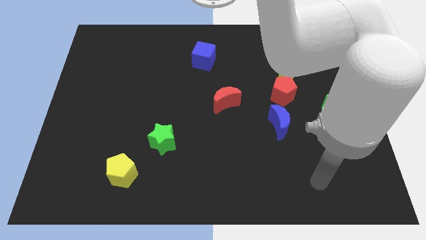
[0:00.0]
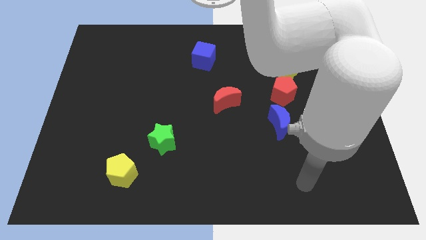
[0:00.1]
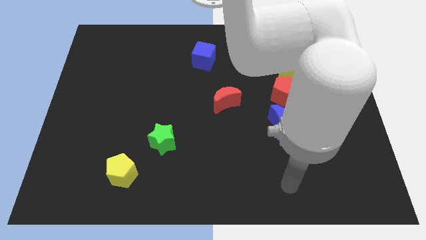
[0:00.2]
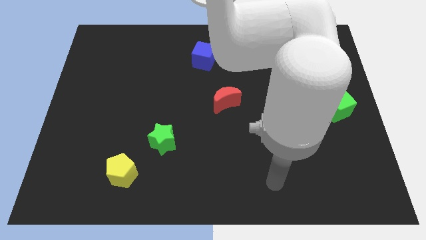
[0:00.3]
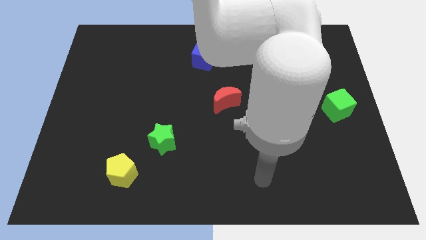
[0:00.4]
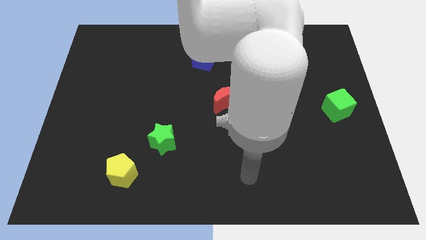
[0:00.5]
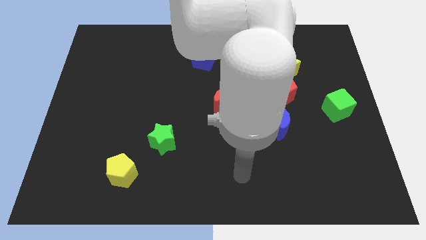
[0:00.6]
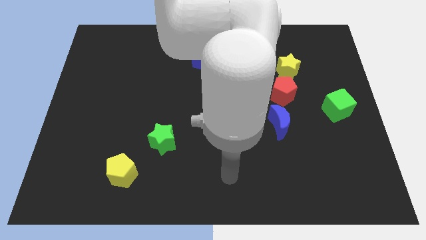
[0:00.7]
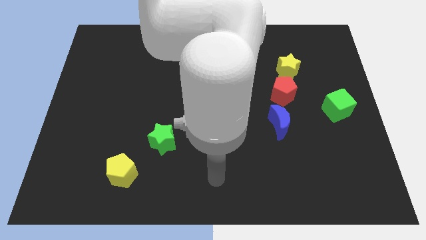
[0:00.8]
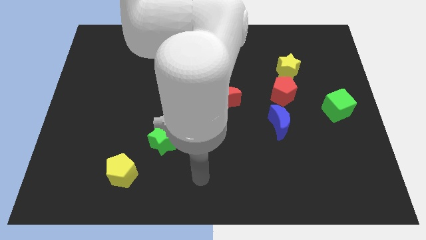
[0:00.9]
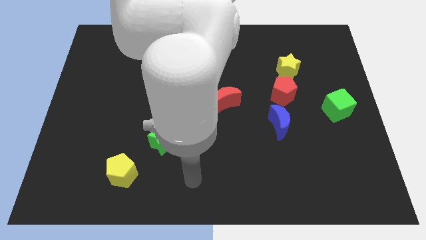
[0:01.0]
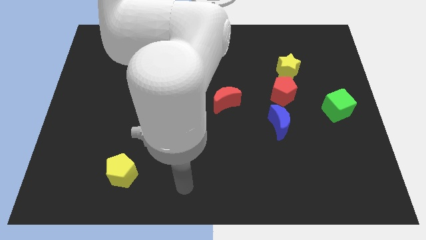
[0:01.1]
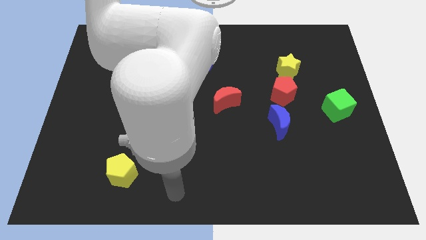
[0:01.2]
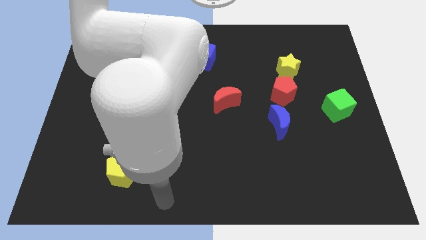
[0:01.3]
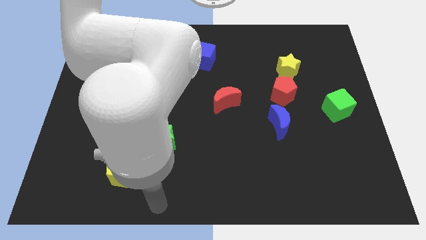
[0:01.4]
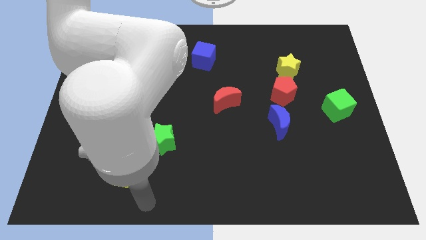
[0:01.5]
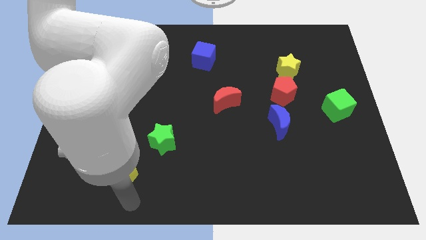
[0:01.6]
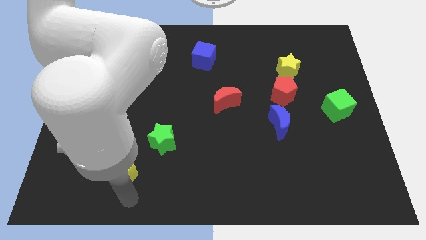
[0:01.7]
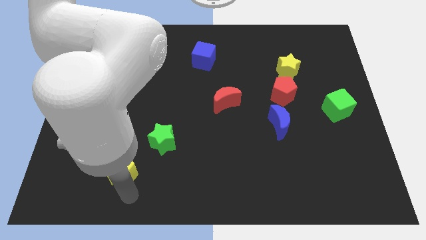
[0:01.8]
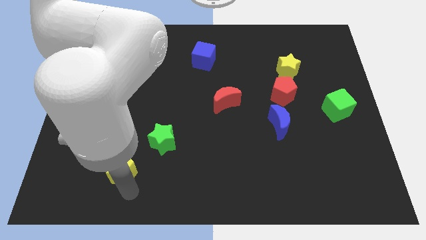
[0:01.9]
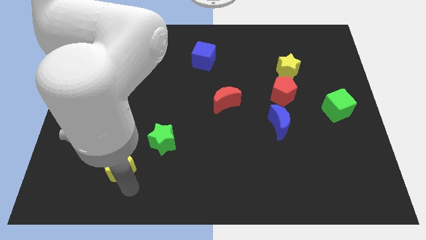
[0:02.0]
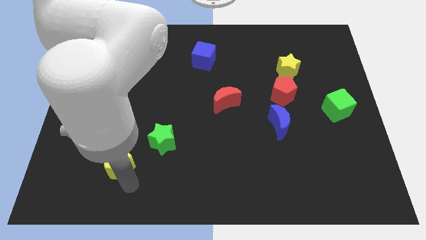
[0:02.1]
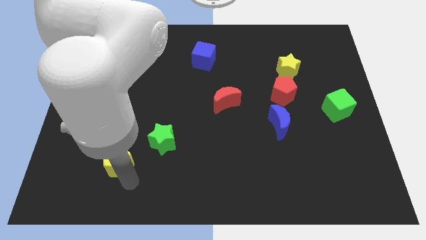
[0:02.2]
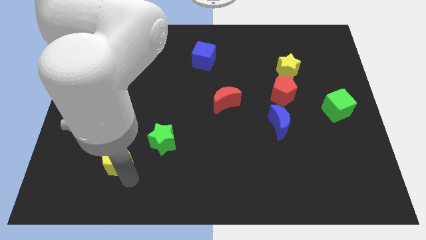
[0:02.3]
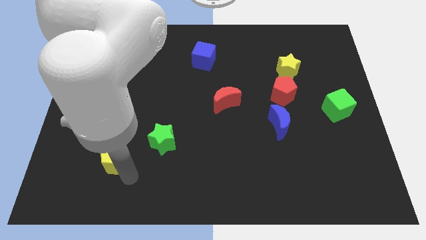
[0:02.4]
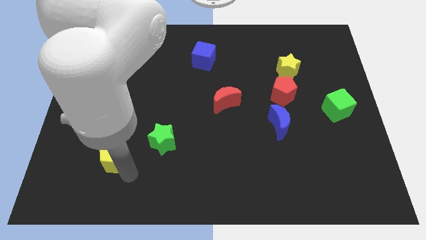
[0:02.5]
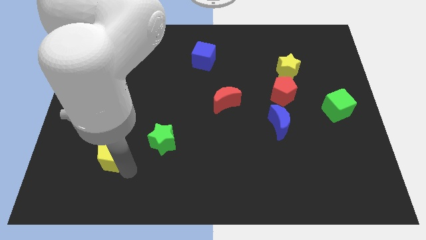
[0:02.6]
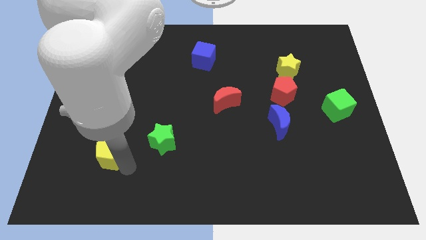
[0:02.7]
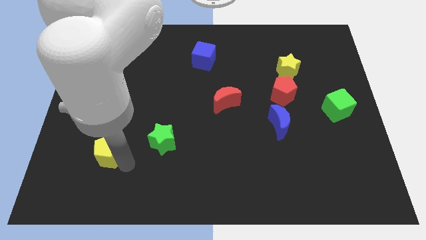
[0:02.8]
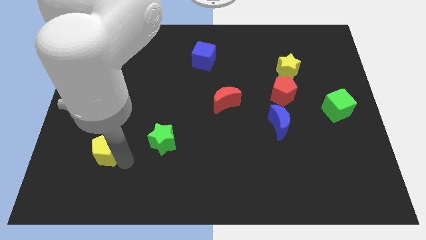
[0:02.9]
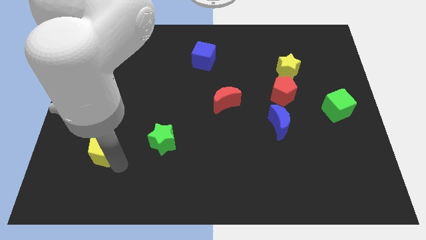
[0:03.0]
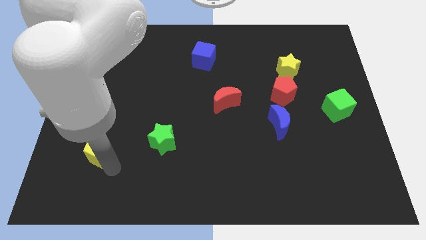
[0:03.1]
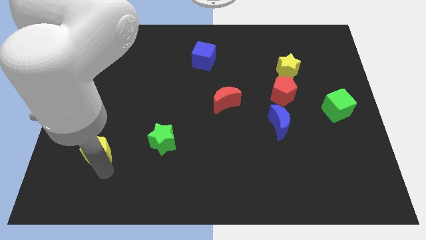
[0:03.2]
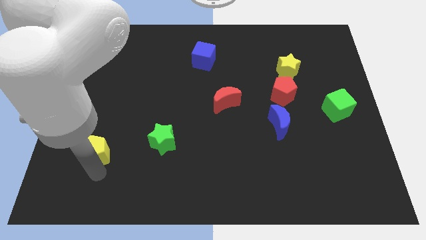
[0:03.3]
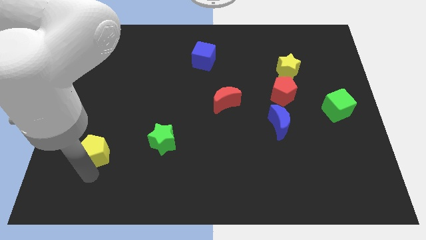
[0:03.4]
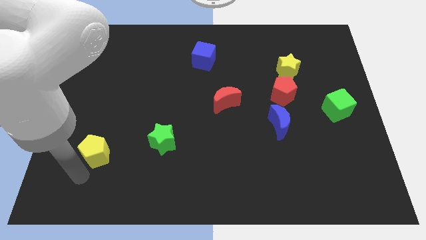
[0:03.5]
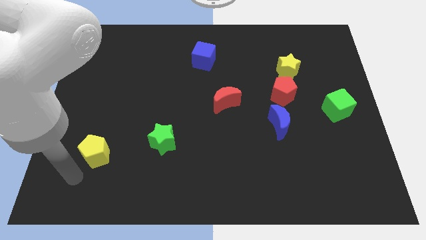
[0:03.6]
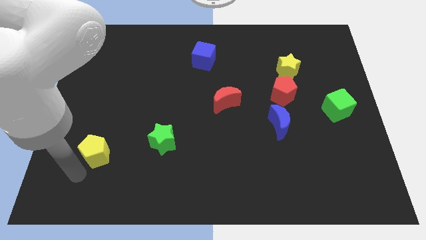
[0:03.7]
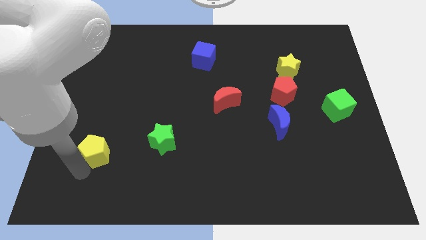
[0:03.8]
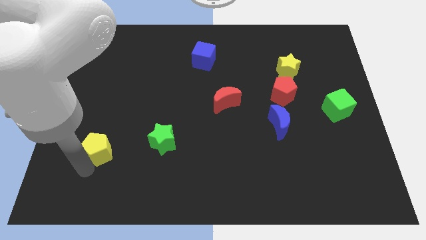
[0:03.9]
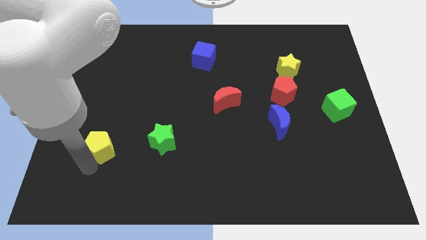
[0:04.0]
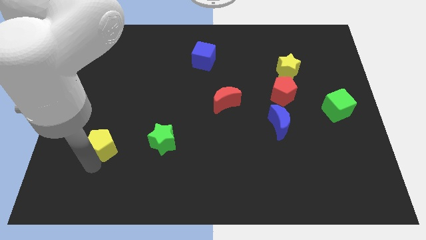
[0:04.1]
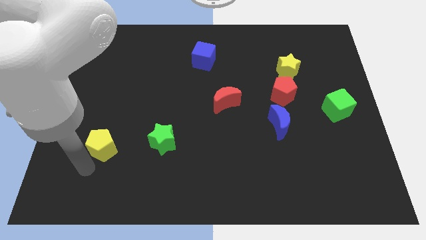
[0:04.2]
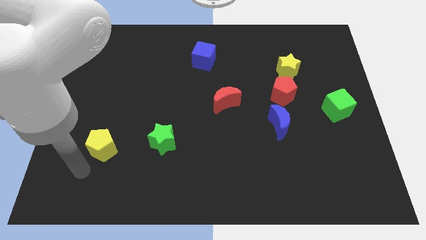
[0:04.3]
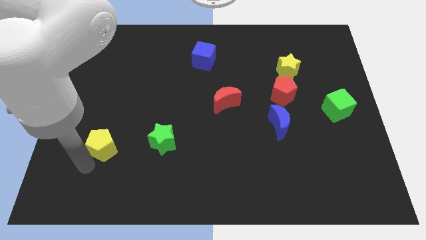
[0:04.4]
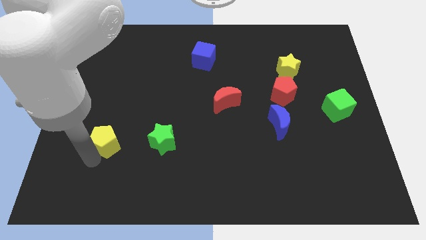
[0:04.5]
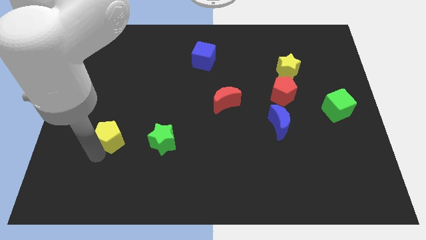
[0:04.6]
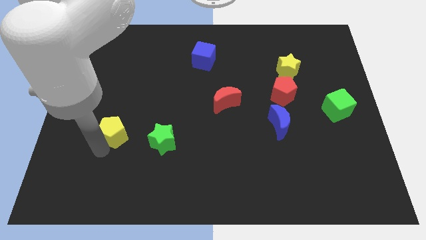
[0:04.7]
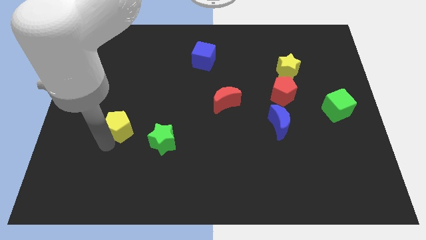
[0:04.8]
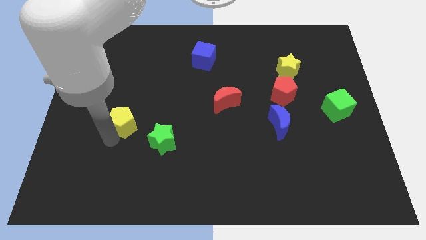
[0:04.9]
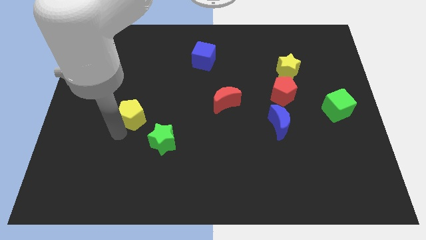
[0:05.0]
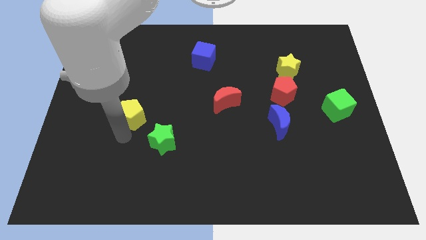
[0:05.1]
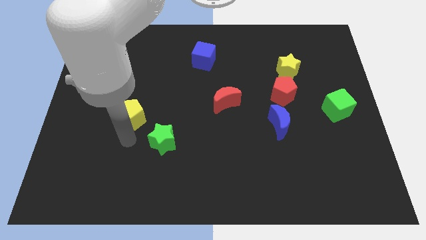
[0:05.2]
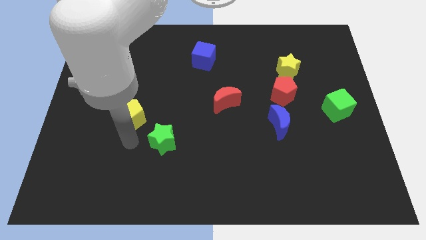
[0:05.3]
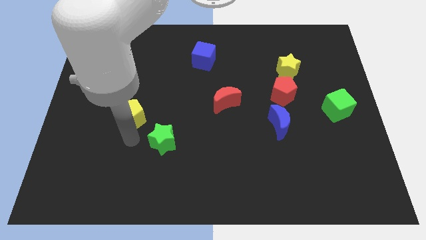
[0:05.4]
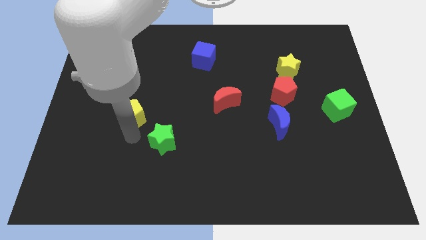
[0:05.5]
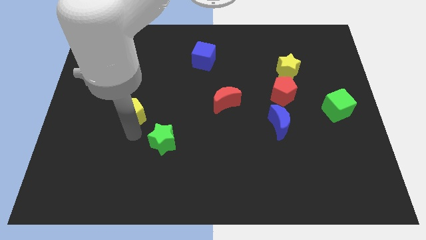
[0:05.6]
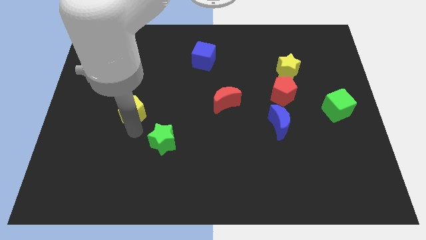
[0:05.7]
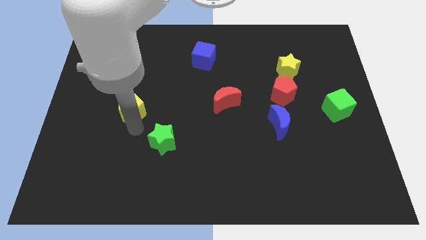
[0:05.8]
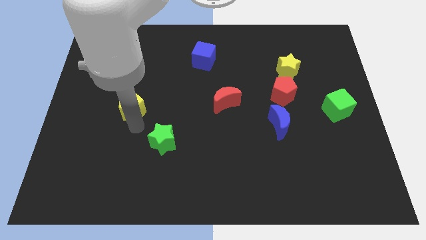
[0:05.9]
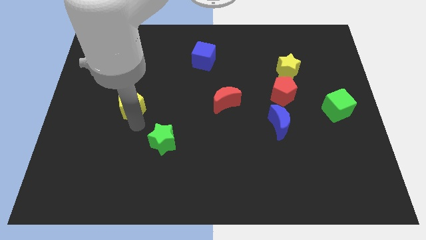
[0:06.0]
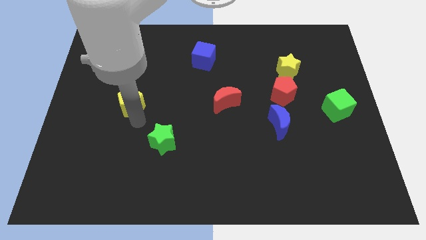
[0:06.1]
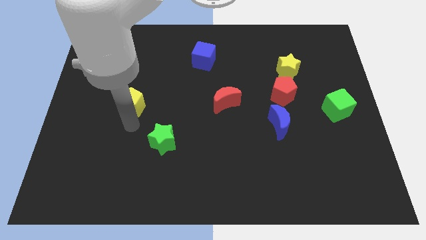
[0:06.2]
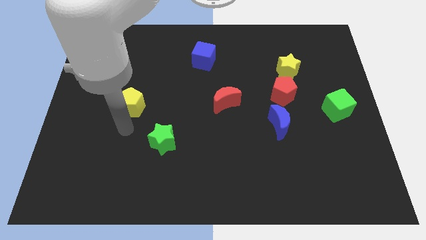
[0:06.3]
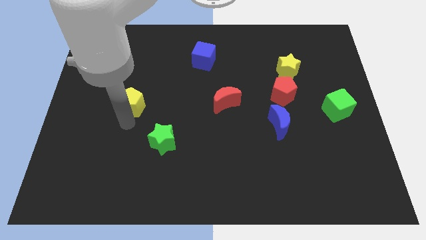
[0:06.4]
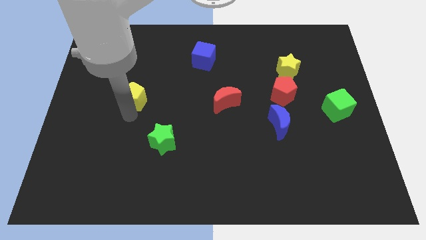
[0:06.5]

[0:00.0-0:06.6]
push the yellow pentagon upwards

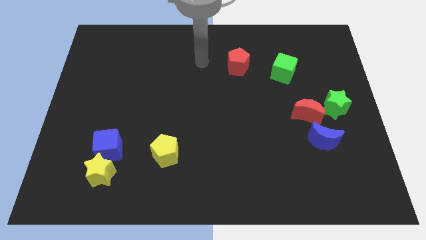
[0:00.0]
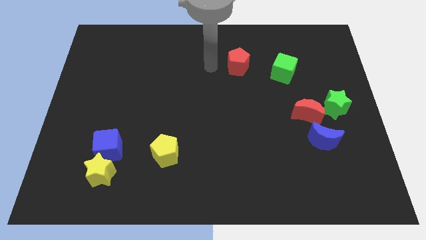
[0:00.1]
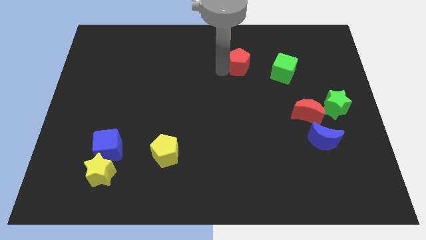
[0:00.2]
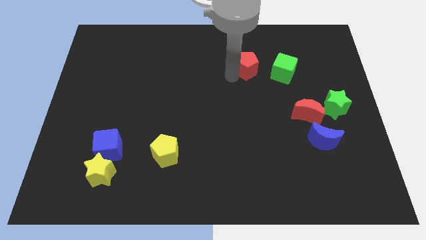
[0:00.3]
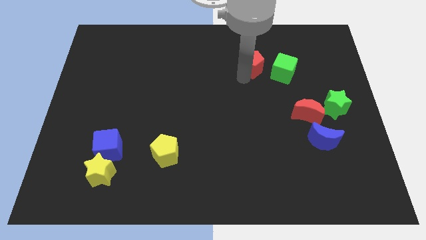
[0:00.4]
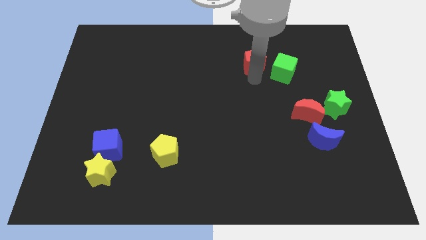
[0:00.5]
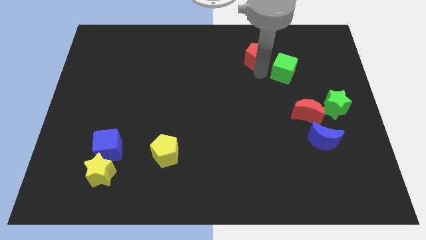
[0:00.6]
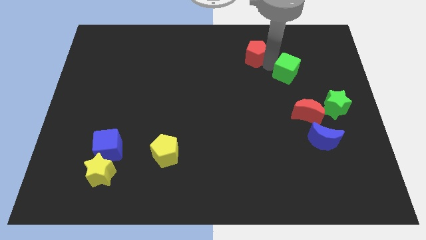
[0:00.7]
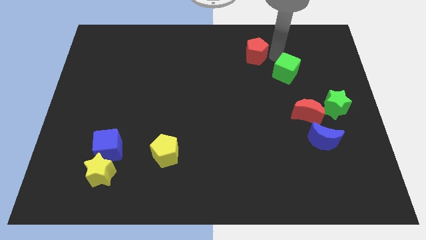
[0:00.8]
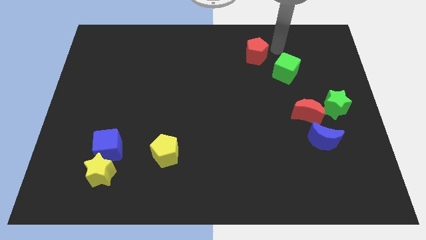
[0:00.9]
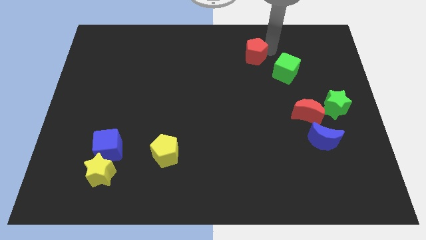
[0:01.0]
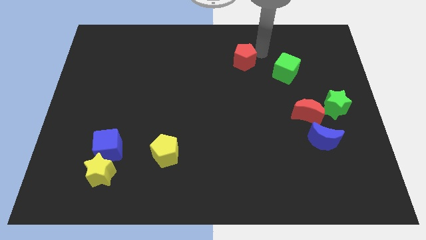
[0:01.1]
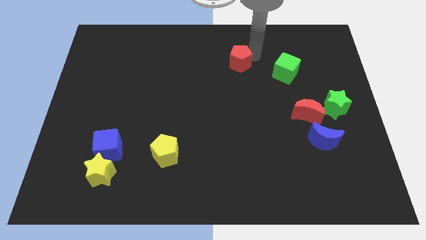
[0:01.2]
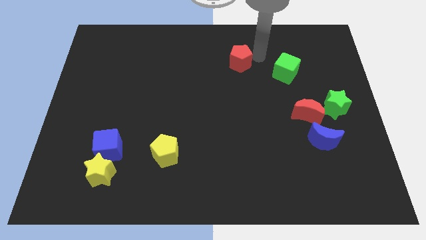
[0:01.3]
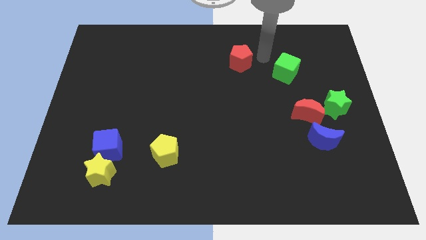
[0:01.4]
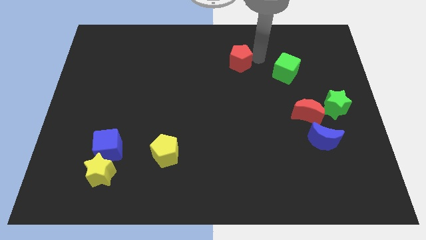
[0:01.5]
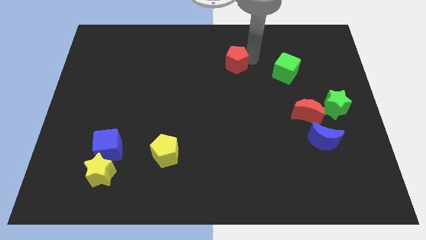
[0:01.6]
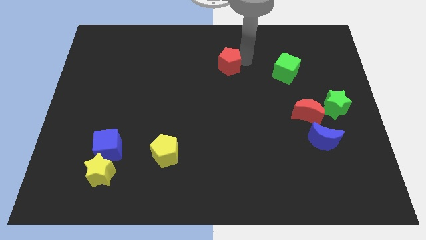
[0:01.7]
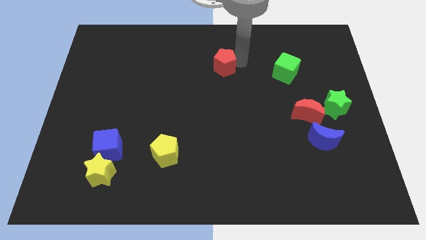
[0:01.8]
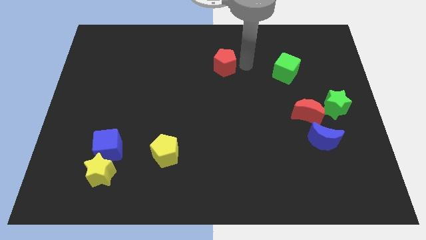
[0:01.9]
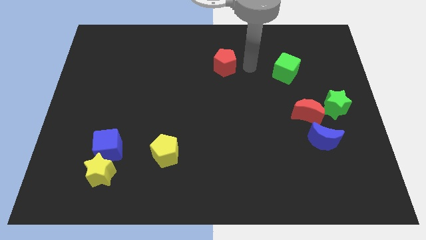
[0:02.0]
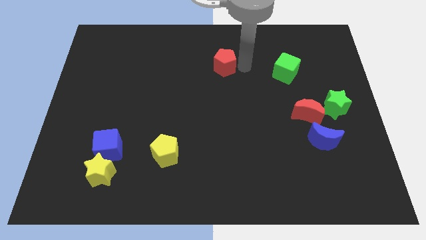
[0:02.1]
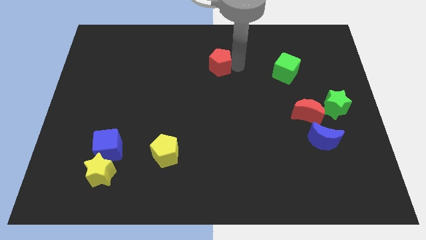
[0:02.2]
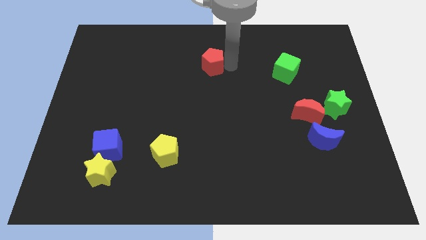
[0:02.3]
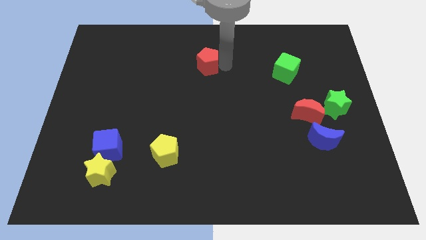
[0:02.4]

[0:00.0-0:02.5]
push the red pentagon to the left a little bit
